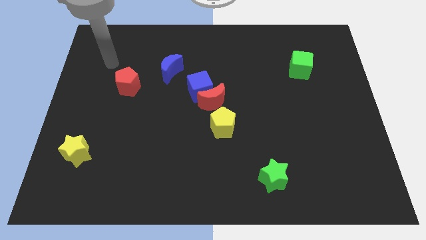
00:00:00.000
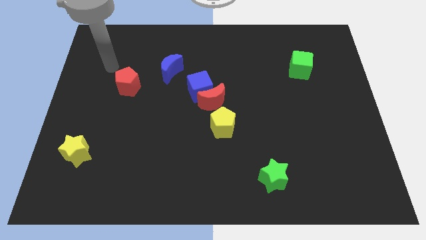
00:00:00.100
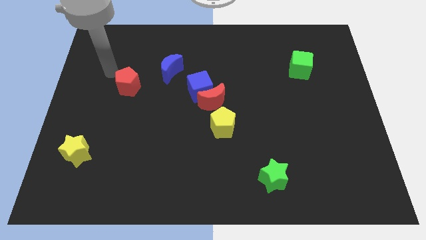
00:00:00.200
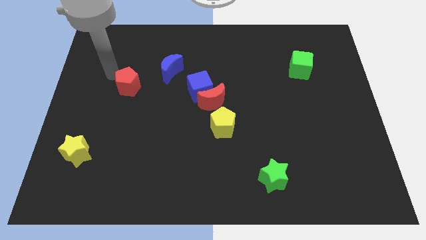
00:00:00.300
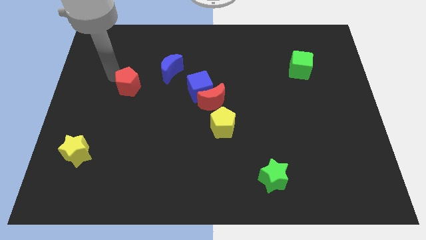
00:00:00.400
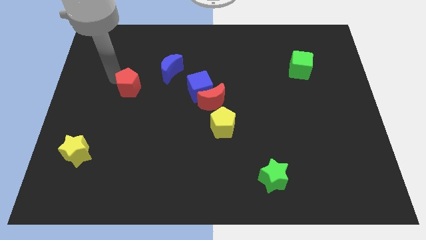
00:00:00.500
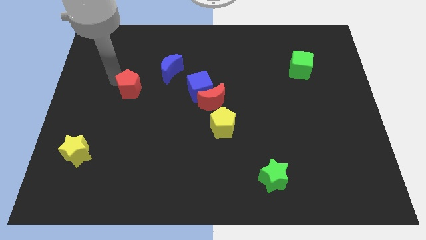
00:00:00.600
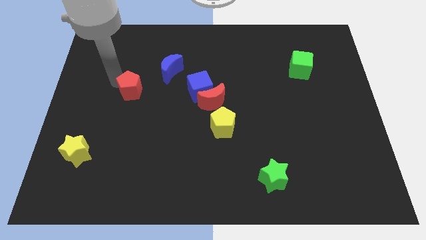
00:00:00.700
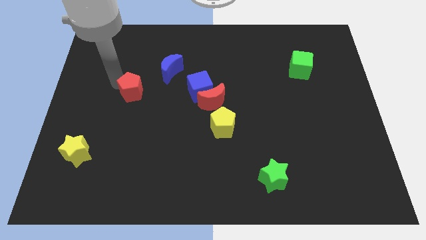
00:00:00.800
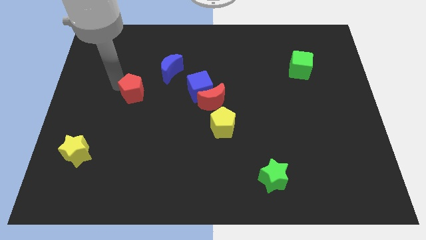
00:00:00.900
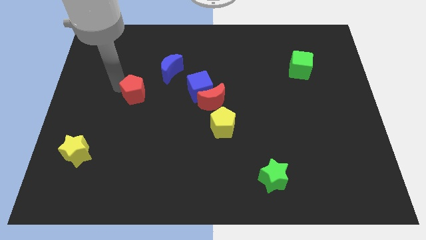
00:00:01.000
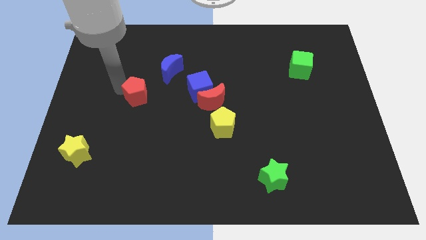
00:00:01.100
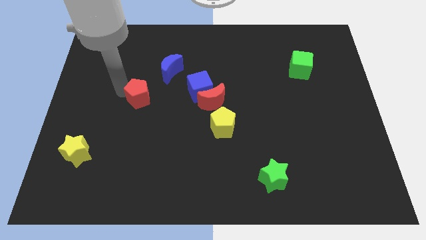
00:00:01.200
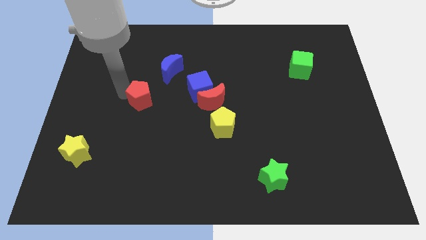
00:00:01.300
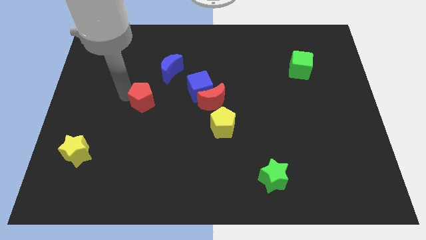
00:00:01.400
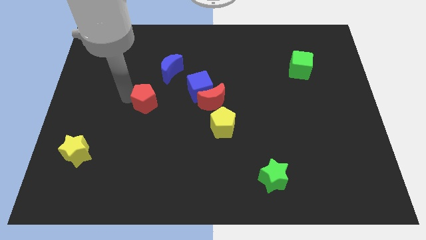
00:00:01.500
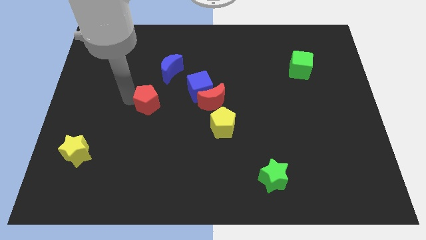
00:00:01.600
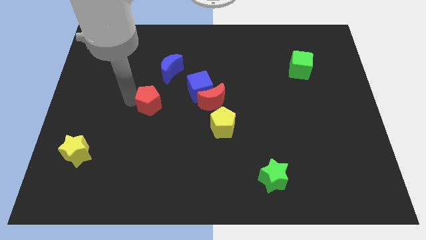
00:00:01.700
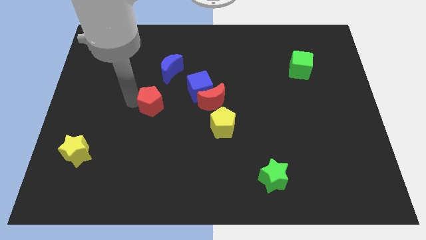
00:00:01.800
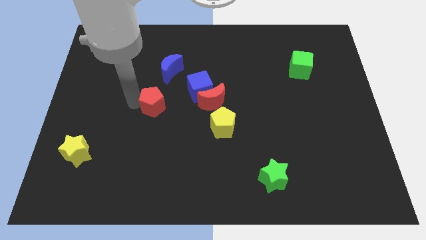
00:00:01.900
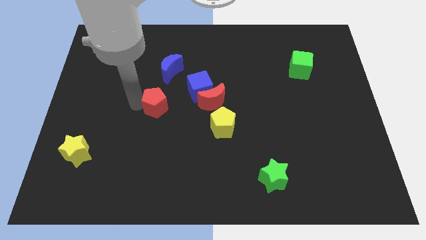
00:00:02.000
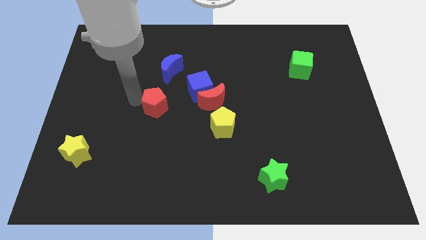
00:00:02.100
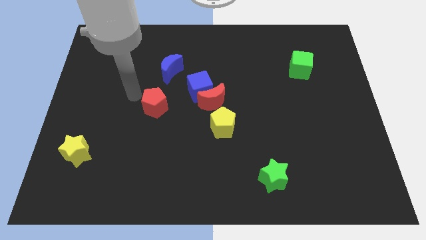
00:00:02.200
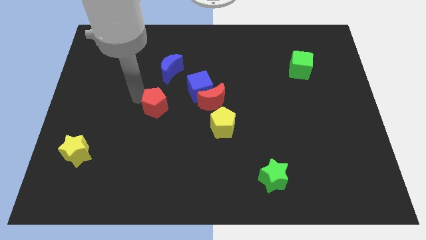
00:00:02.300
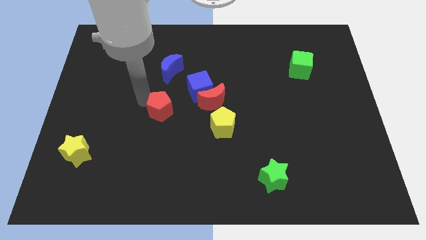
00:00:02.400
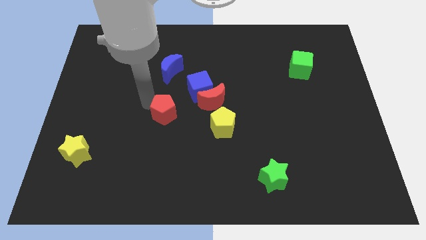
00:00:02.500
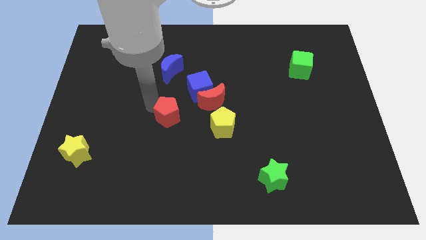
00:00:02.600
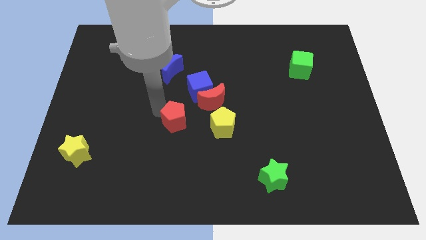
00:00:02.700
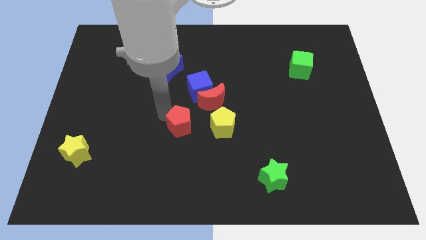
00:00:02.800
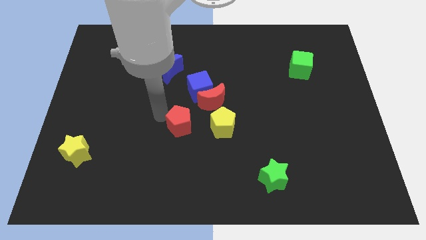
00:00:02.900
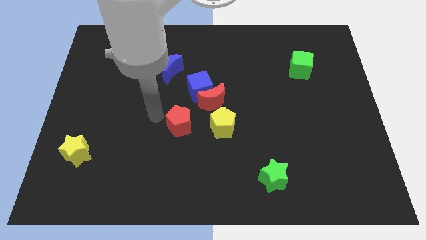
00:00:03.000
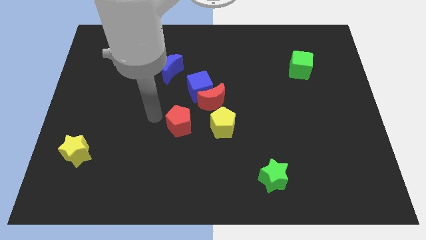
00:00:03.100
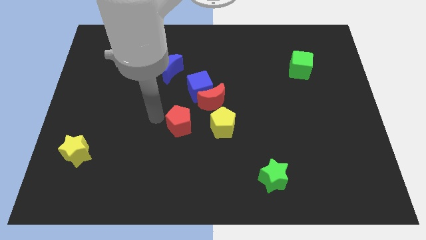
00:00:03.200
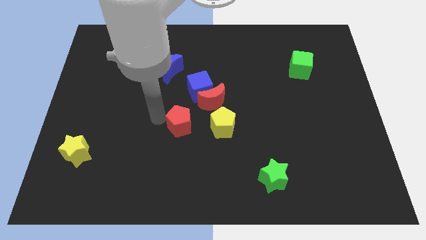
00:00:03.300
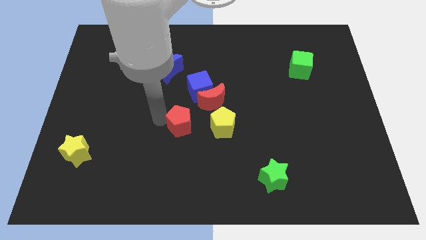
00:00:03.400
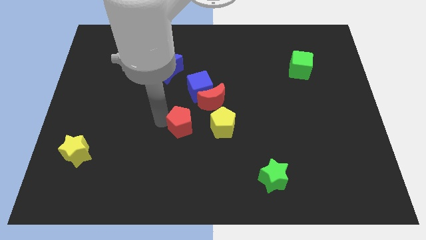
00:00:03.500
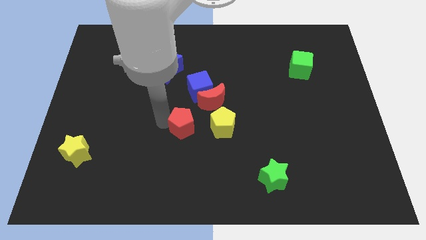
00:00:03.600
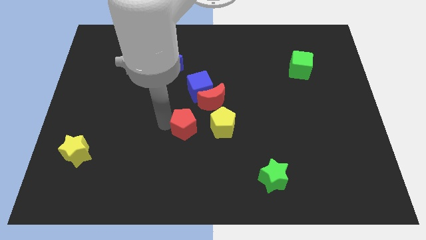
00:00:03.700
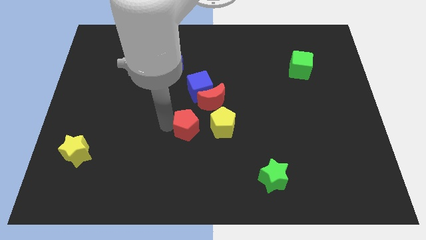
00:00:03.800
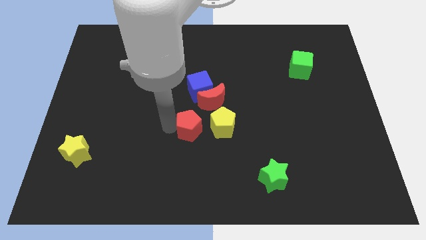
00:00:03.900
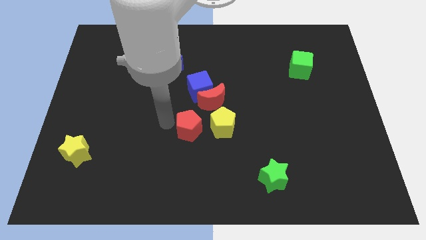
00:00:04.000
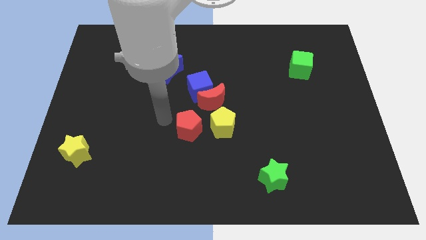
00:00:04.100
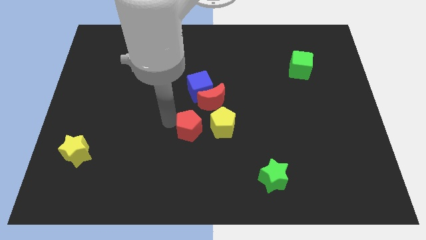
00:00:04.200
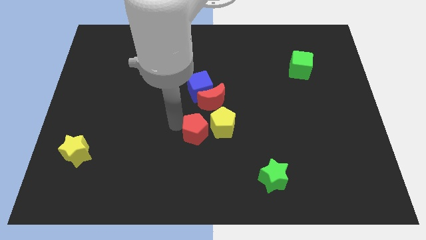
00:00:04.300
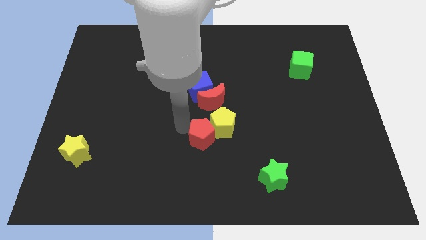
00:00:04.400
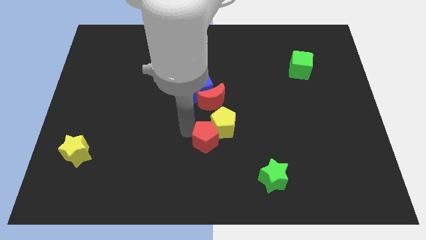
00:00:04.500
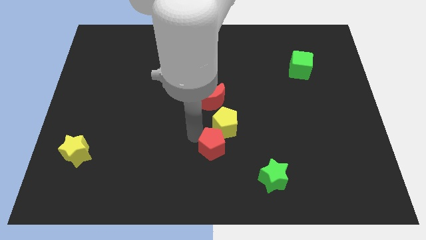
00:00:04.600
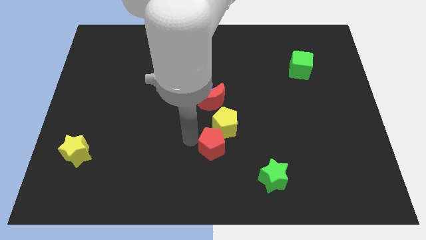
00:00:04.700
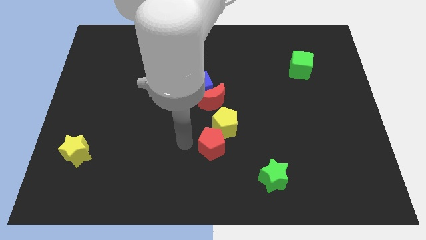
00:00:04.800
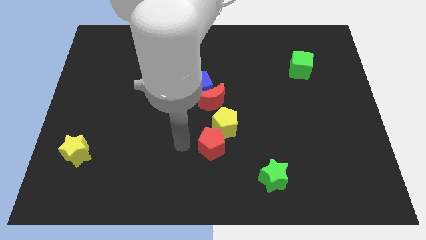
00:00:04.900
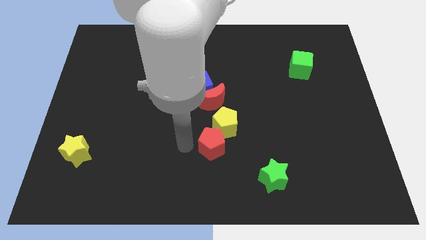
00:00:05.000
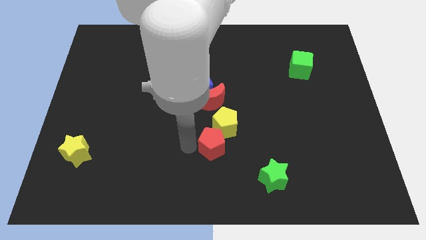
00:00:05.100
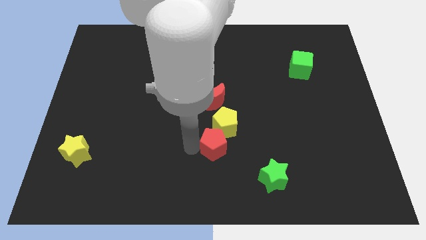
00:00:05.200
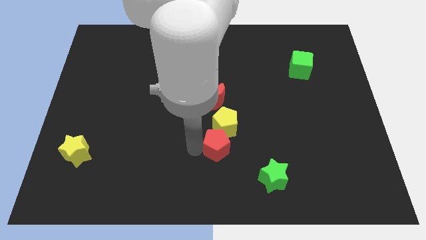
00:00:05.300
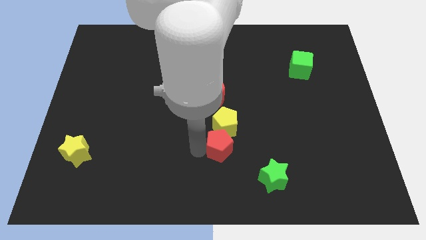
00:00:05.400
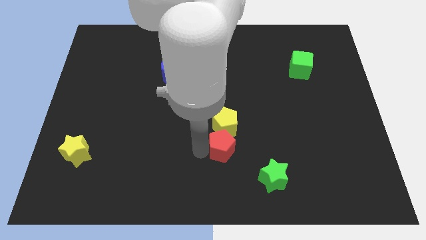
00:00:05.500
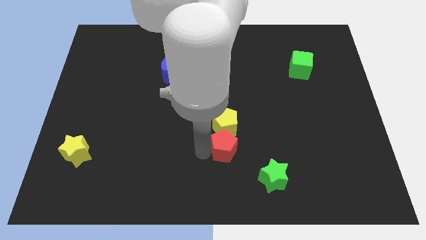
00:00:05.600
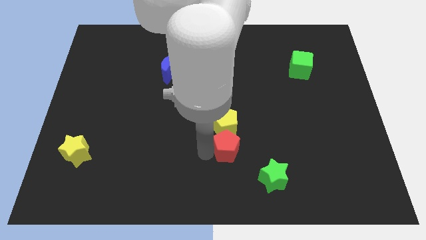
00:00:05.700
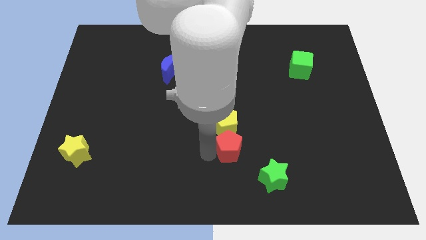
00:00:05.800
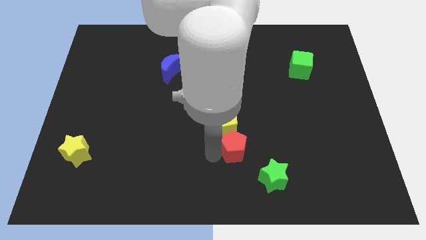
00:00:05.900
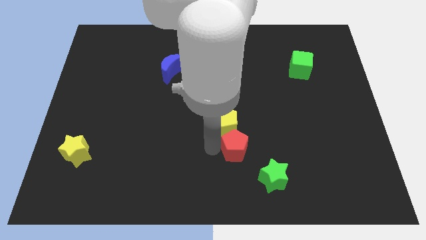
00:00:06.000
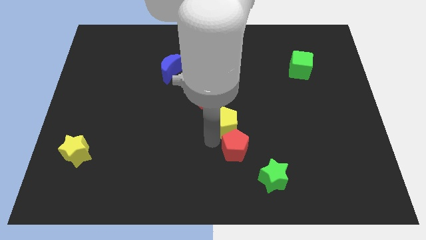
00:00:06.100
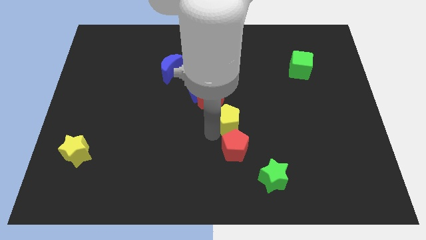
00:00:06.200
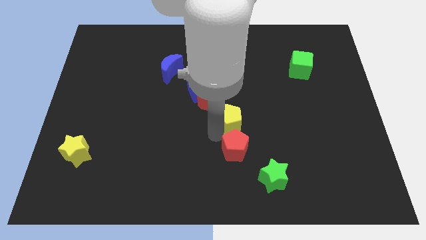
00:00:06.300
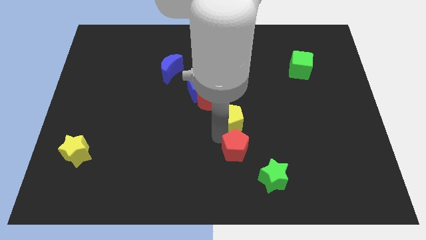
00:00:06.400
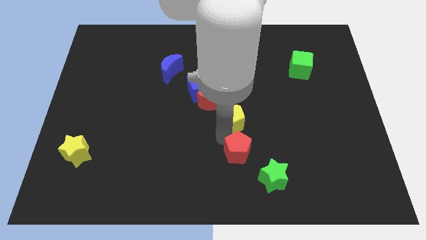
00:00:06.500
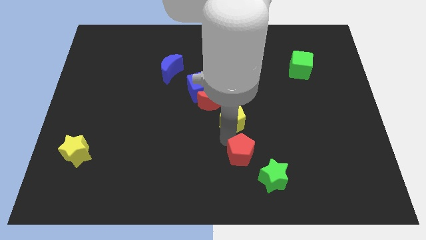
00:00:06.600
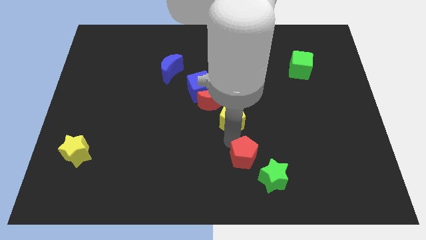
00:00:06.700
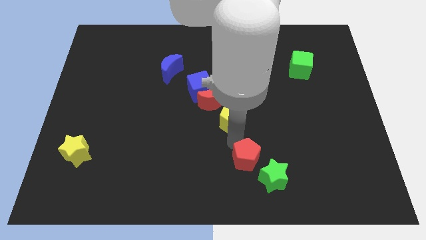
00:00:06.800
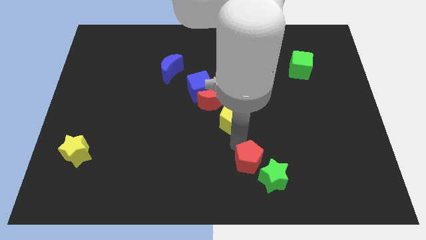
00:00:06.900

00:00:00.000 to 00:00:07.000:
move the red pentagon towards the green star
